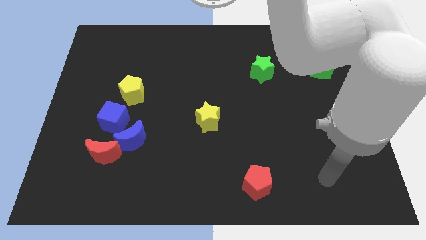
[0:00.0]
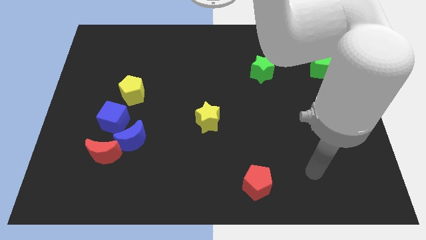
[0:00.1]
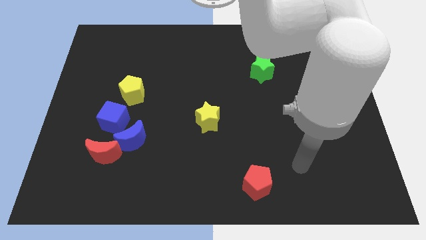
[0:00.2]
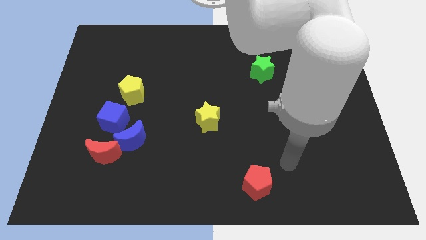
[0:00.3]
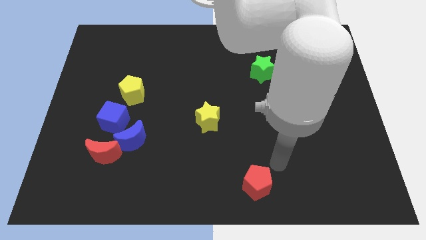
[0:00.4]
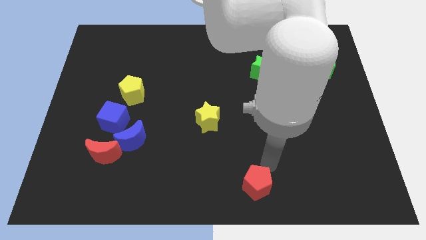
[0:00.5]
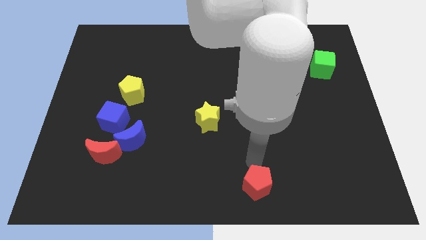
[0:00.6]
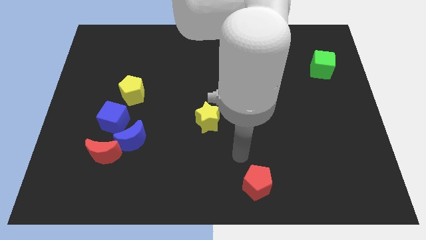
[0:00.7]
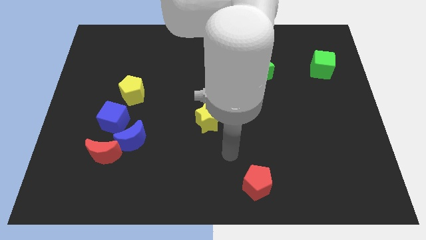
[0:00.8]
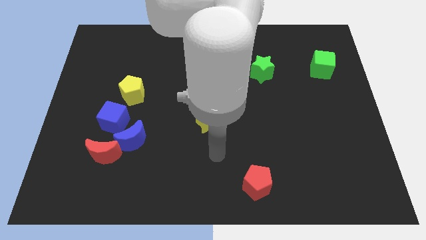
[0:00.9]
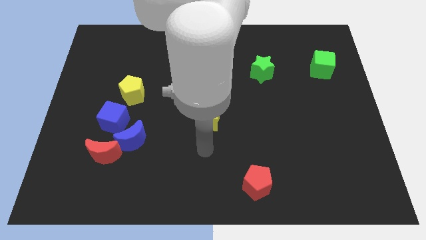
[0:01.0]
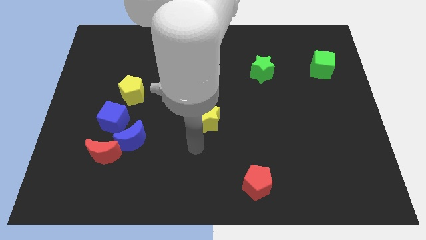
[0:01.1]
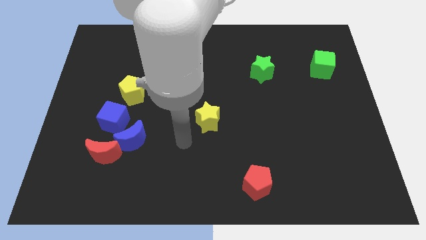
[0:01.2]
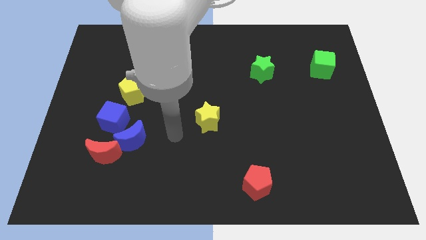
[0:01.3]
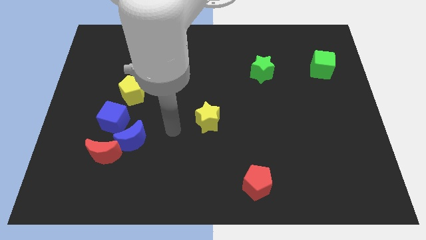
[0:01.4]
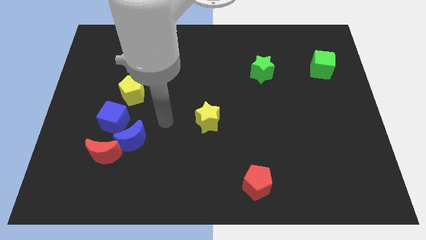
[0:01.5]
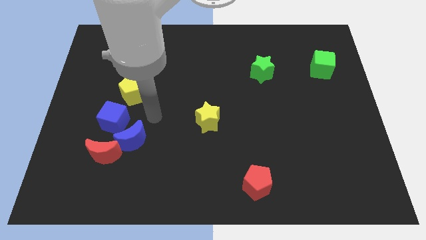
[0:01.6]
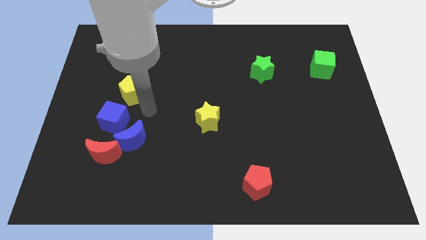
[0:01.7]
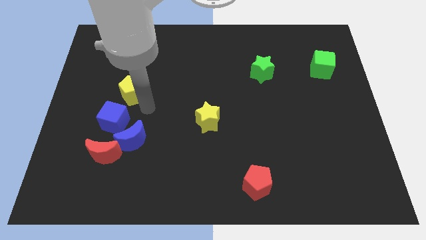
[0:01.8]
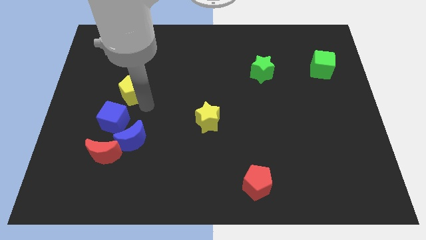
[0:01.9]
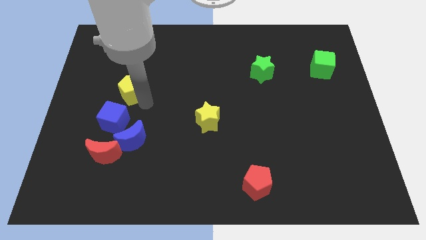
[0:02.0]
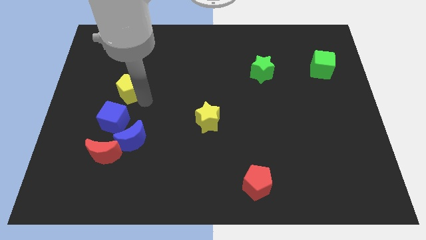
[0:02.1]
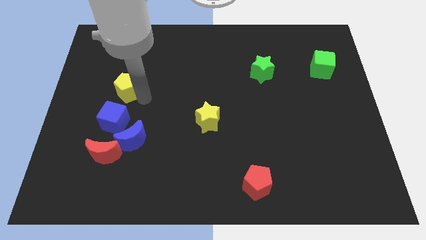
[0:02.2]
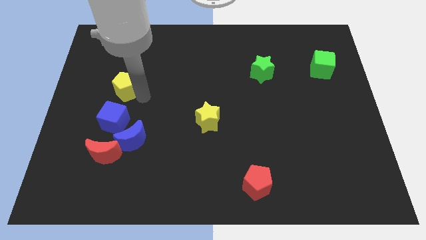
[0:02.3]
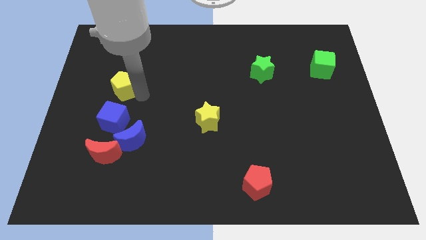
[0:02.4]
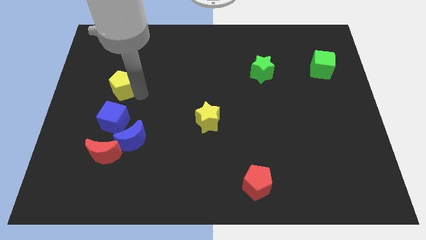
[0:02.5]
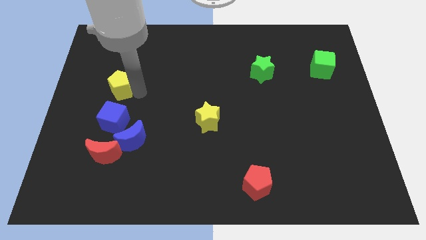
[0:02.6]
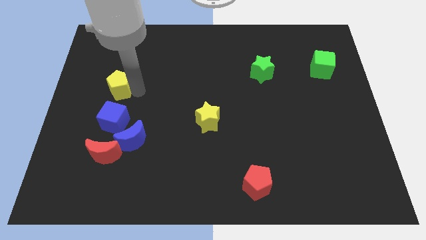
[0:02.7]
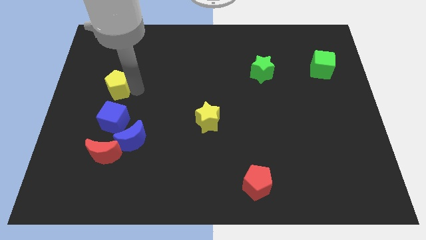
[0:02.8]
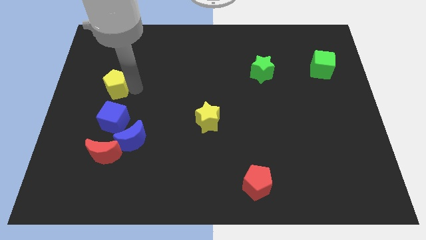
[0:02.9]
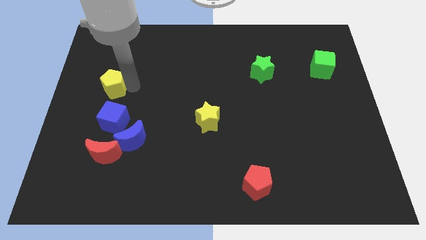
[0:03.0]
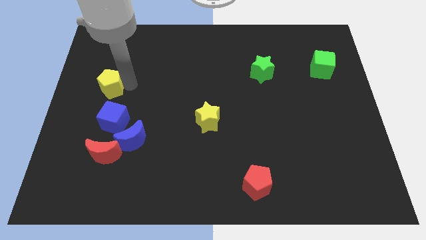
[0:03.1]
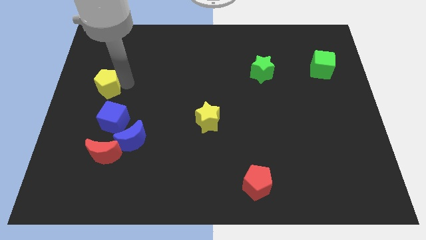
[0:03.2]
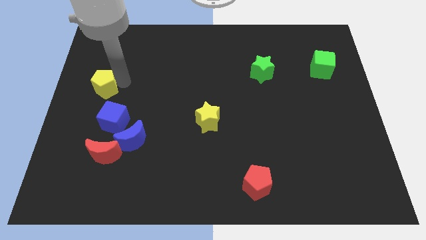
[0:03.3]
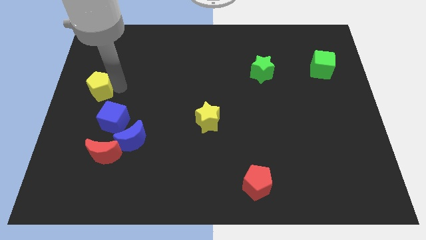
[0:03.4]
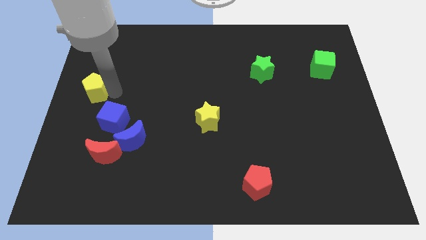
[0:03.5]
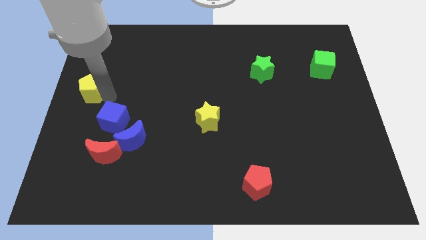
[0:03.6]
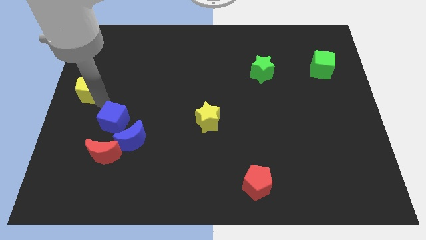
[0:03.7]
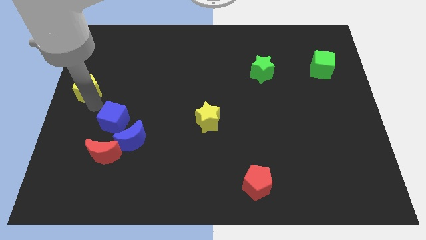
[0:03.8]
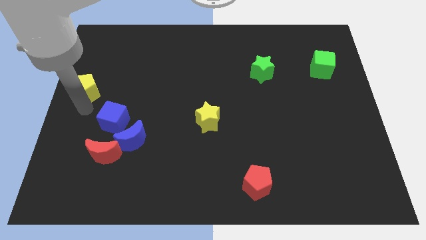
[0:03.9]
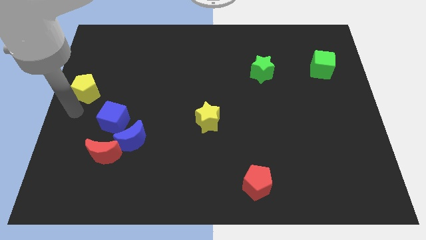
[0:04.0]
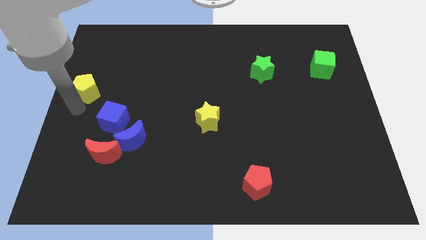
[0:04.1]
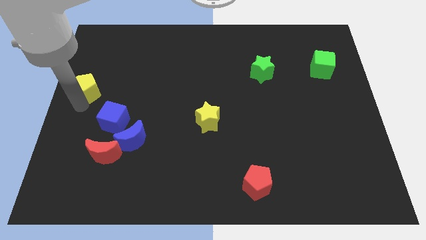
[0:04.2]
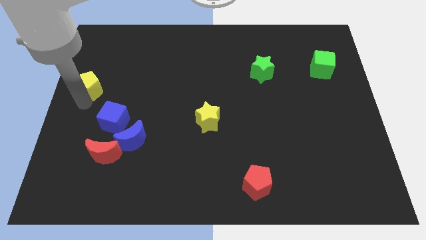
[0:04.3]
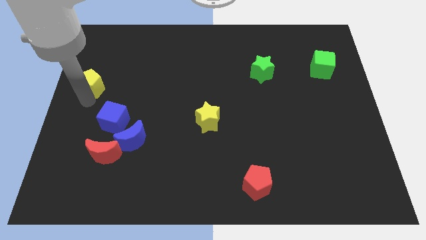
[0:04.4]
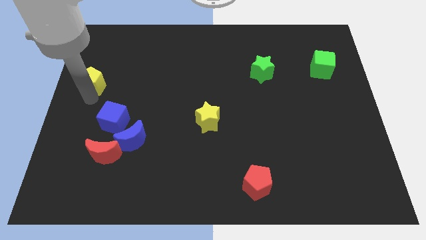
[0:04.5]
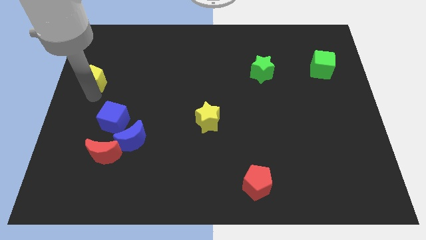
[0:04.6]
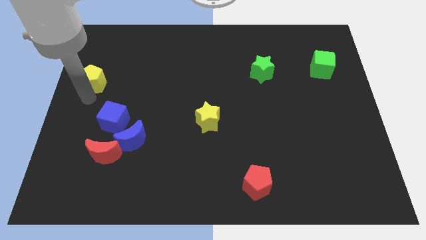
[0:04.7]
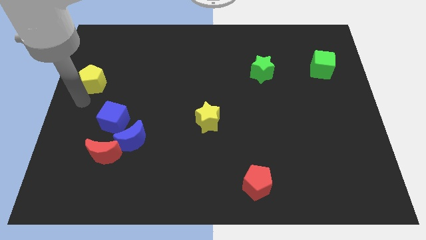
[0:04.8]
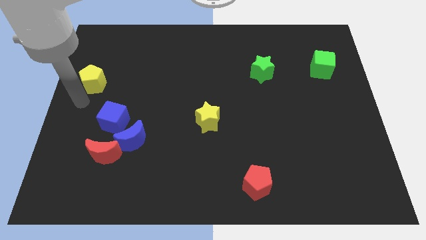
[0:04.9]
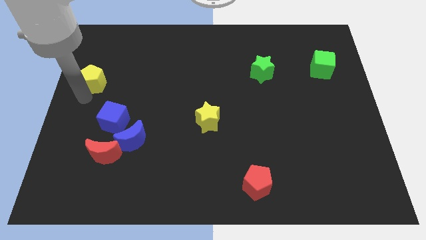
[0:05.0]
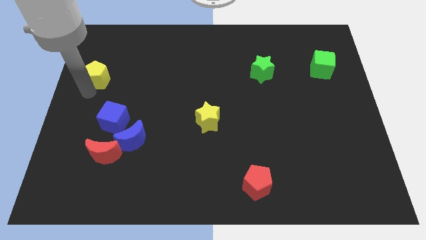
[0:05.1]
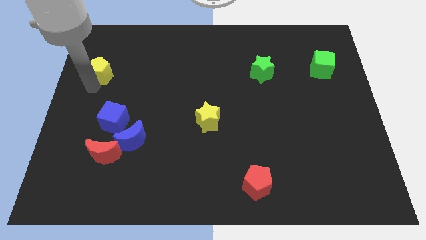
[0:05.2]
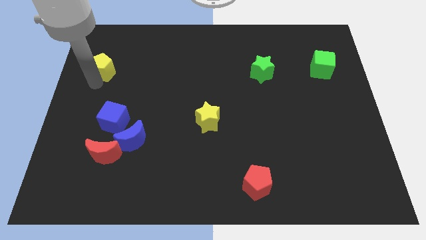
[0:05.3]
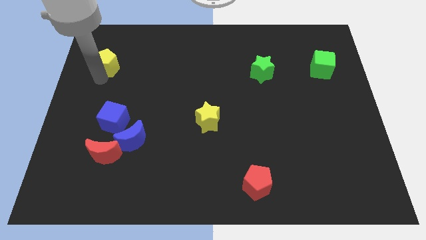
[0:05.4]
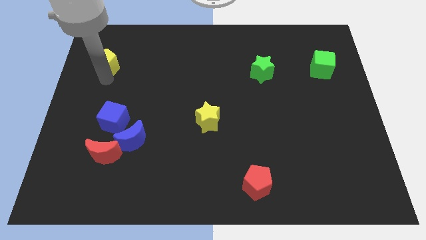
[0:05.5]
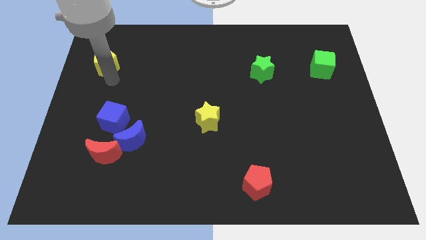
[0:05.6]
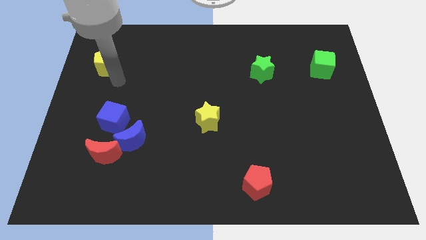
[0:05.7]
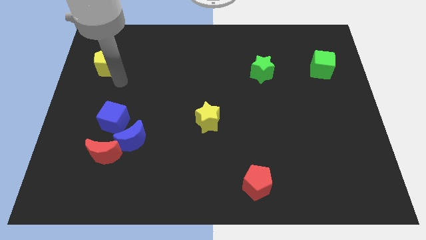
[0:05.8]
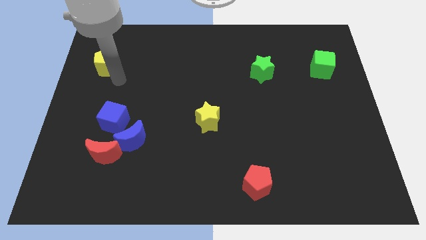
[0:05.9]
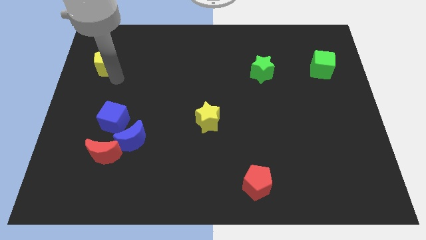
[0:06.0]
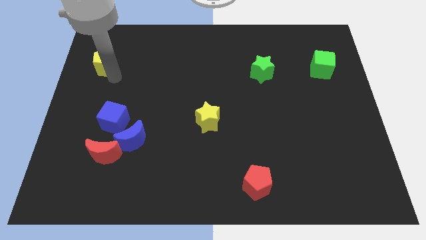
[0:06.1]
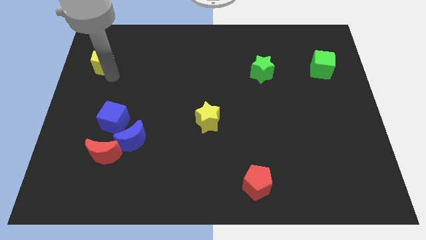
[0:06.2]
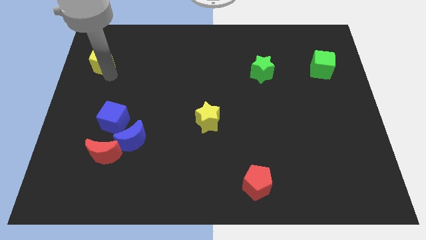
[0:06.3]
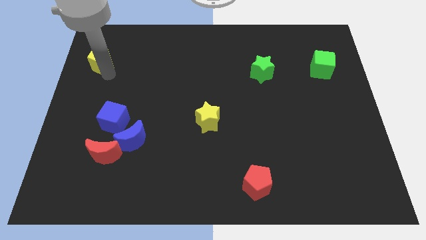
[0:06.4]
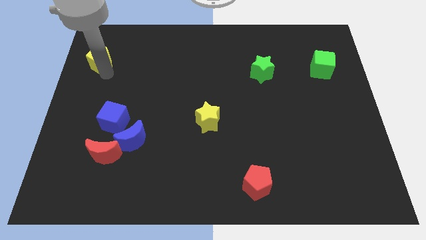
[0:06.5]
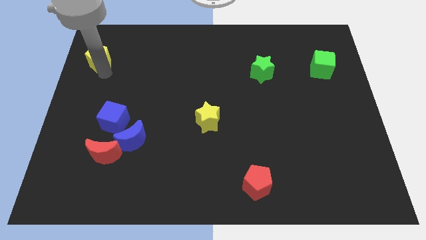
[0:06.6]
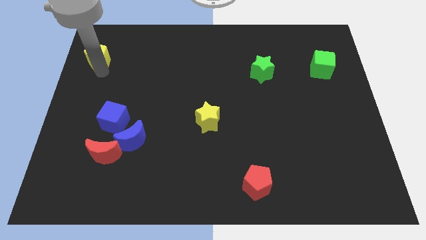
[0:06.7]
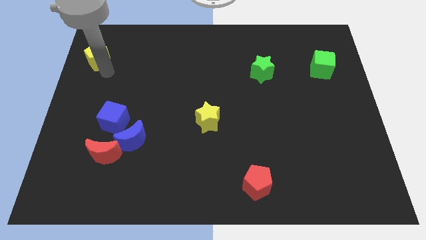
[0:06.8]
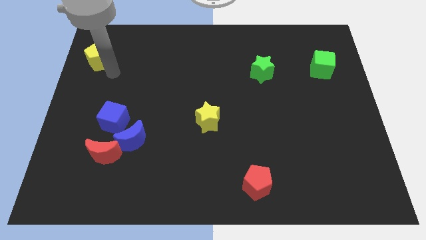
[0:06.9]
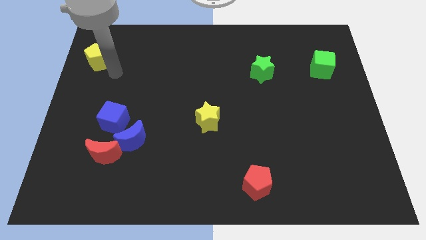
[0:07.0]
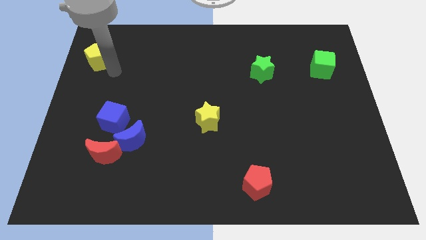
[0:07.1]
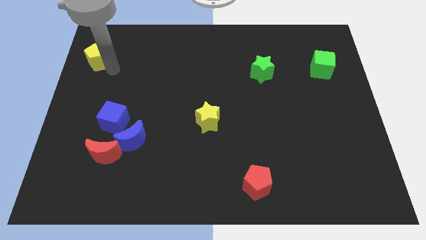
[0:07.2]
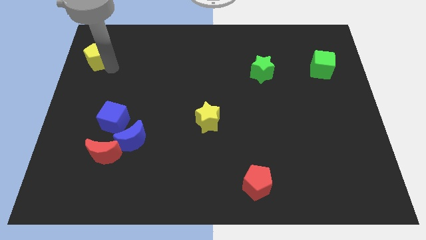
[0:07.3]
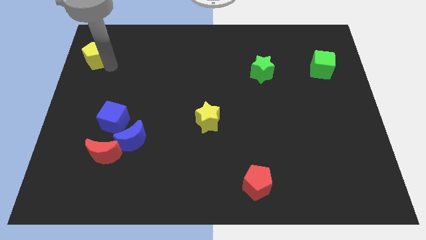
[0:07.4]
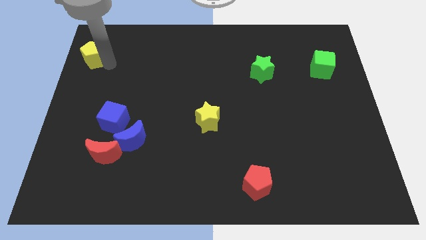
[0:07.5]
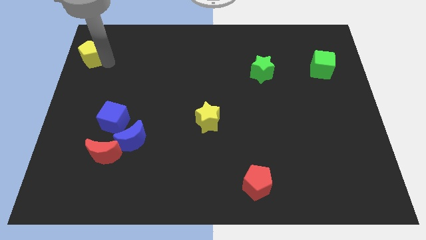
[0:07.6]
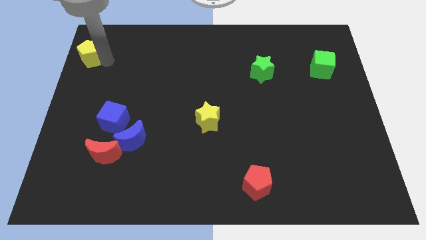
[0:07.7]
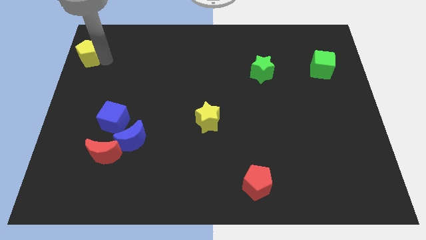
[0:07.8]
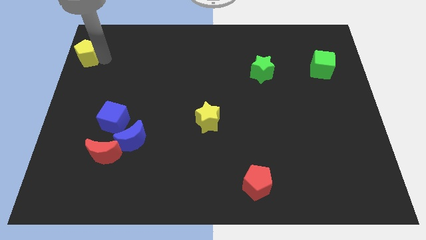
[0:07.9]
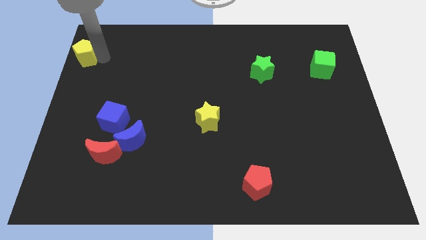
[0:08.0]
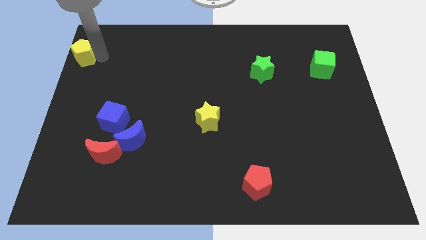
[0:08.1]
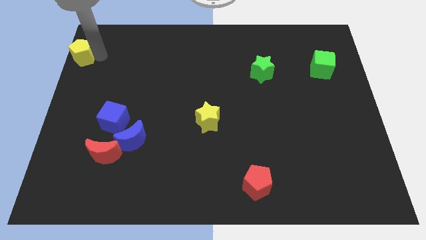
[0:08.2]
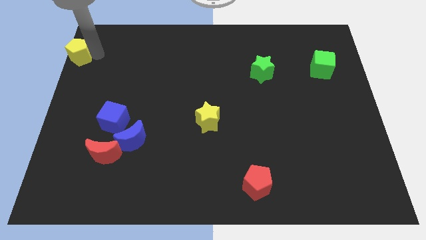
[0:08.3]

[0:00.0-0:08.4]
put the yellow pentagon to the top left
